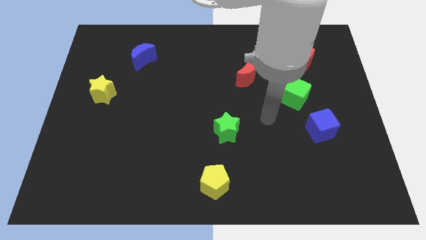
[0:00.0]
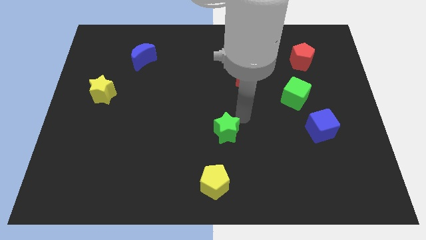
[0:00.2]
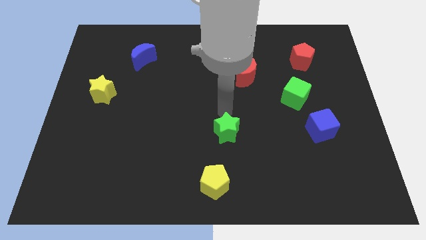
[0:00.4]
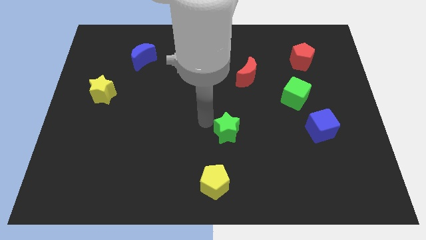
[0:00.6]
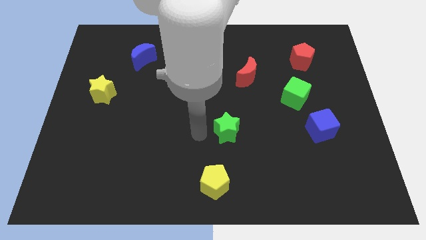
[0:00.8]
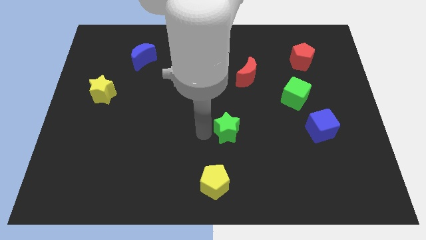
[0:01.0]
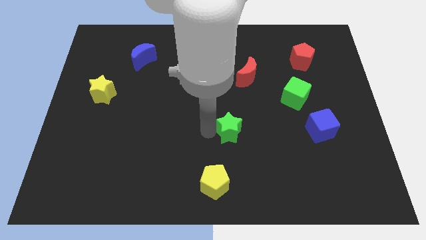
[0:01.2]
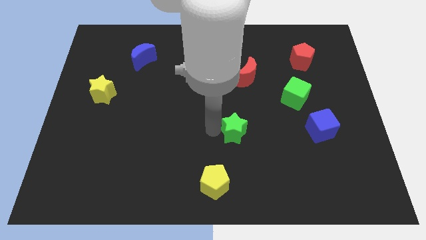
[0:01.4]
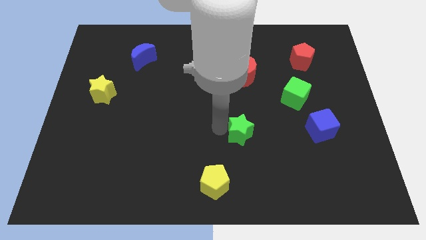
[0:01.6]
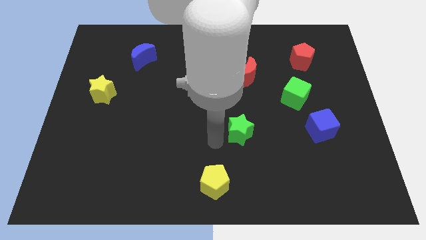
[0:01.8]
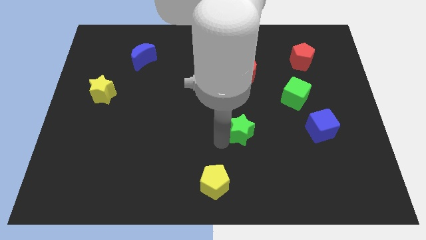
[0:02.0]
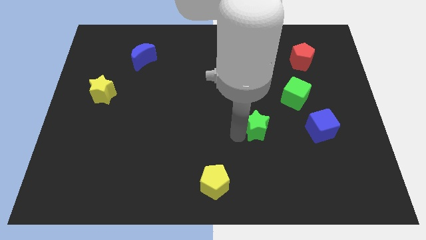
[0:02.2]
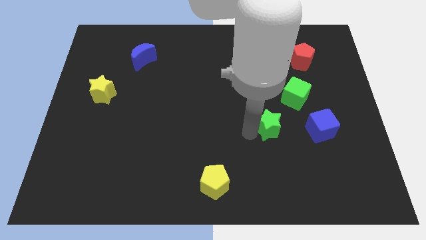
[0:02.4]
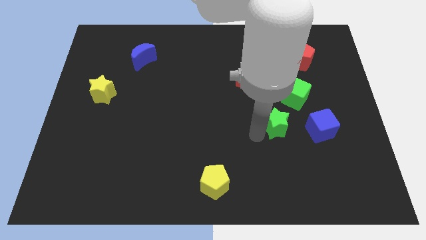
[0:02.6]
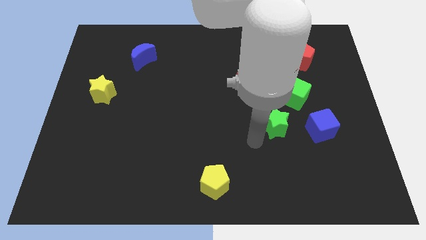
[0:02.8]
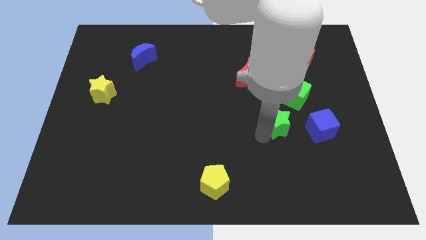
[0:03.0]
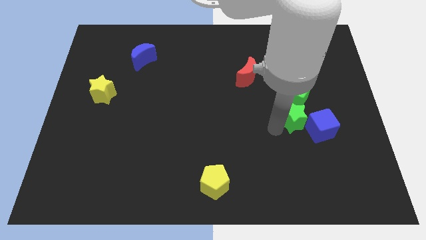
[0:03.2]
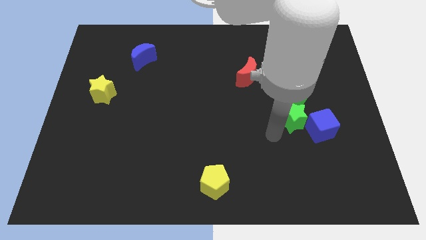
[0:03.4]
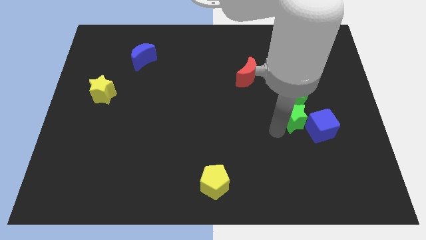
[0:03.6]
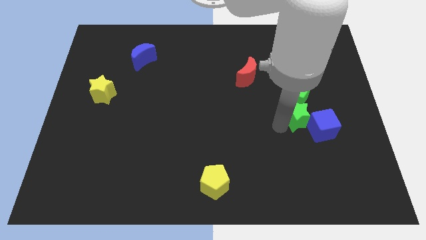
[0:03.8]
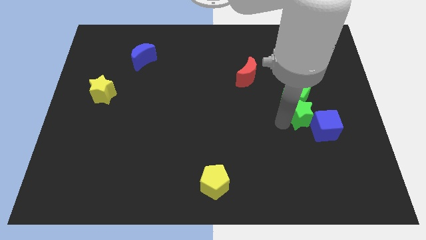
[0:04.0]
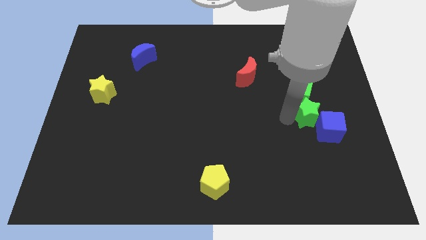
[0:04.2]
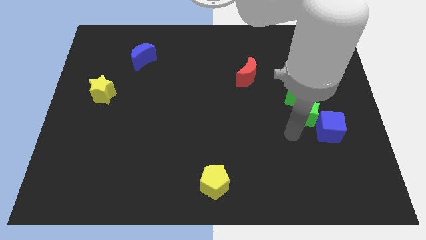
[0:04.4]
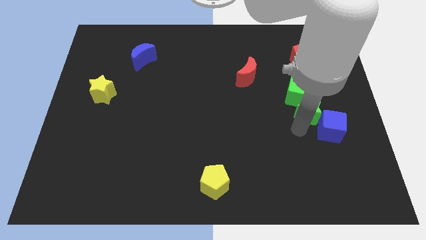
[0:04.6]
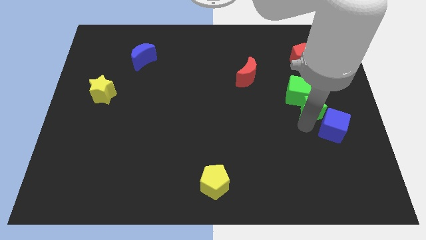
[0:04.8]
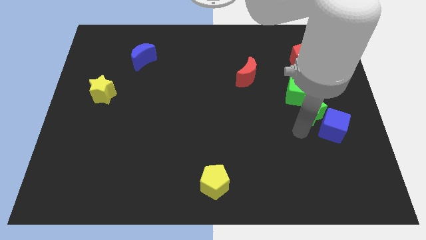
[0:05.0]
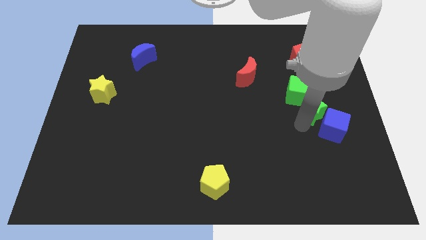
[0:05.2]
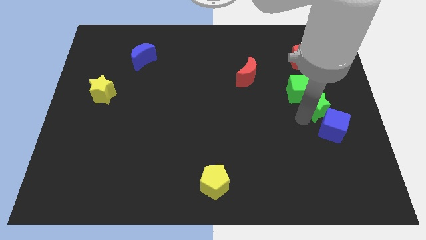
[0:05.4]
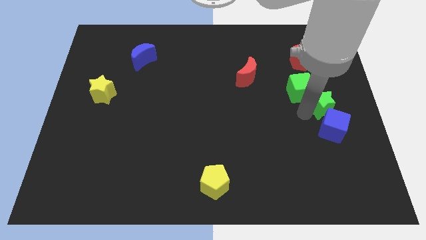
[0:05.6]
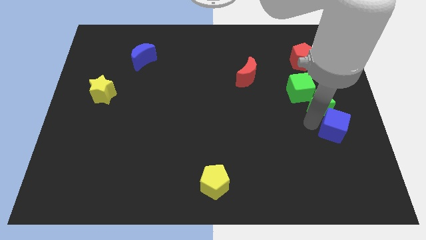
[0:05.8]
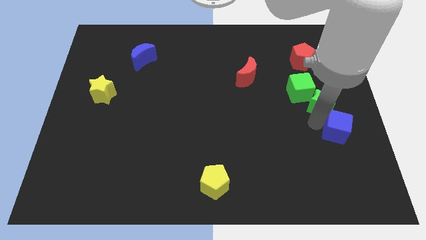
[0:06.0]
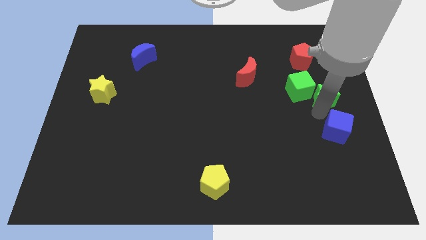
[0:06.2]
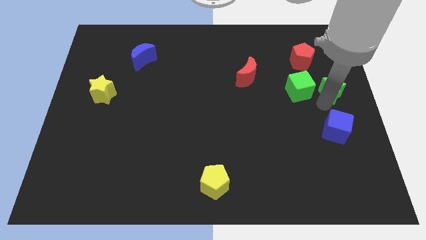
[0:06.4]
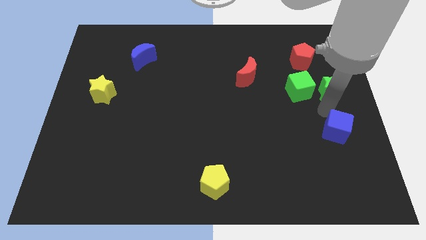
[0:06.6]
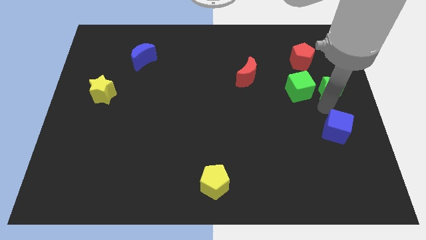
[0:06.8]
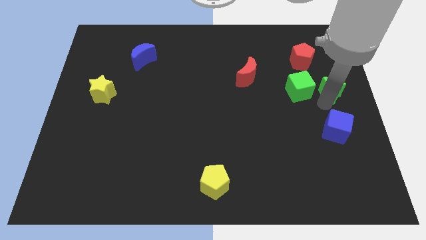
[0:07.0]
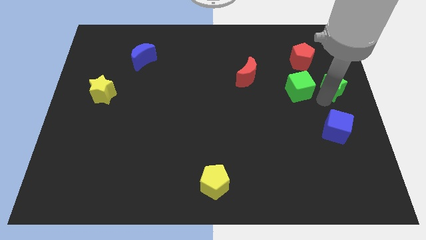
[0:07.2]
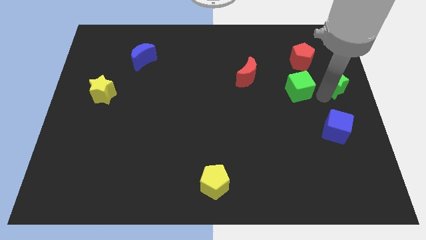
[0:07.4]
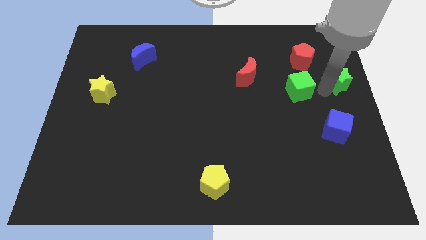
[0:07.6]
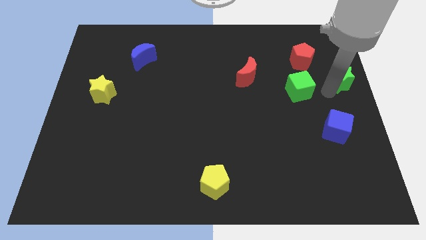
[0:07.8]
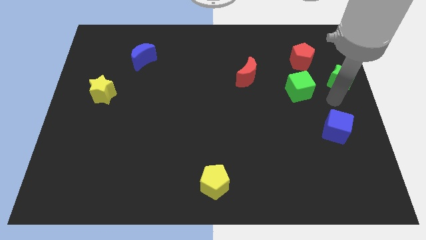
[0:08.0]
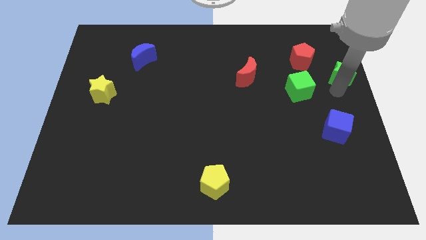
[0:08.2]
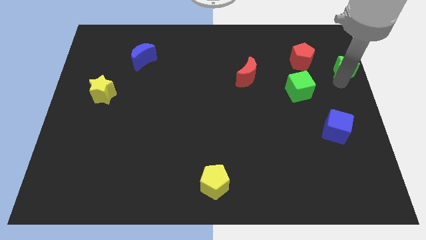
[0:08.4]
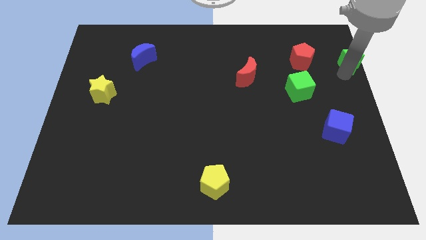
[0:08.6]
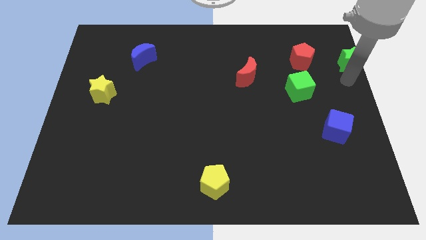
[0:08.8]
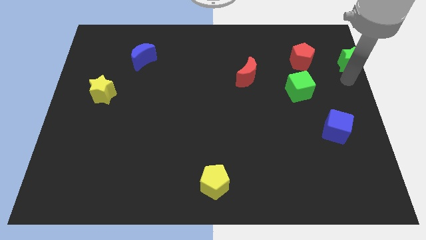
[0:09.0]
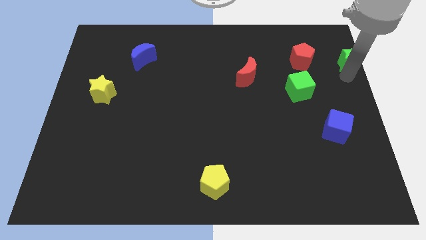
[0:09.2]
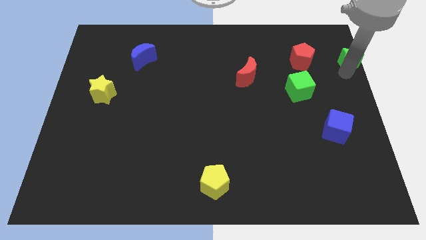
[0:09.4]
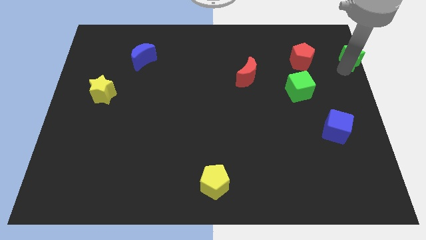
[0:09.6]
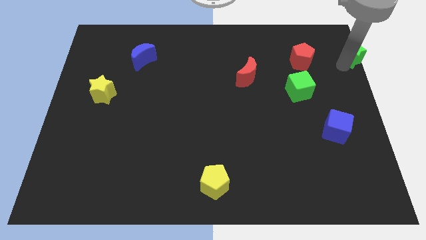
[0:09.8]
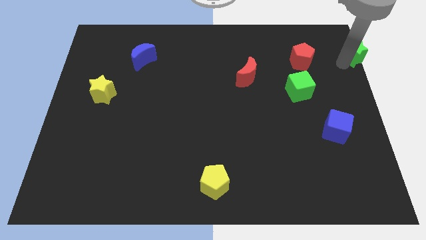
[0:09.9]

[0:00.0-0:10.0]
slide the green star to the top right of the board

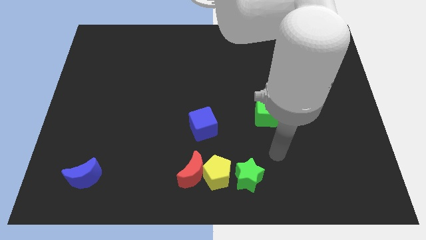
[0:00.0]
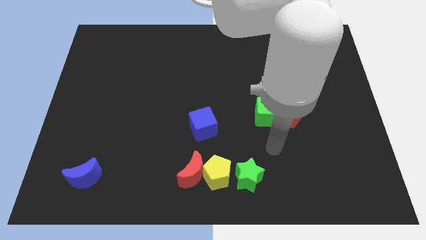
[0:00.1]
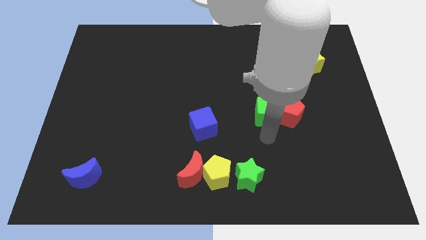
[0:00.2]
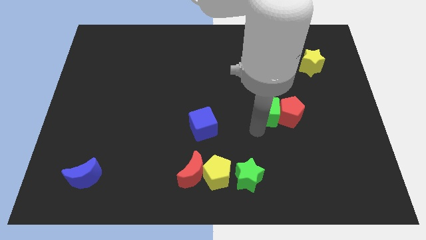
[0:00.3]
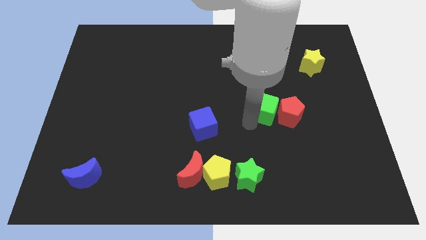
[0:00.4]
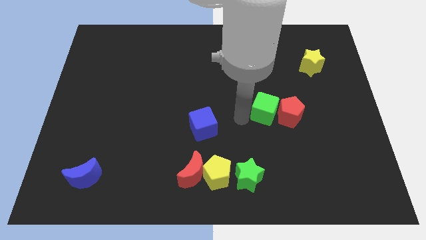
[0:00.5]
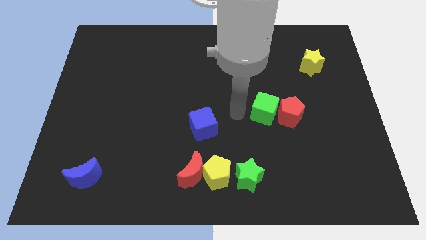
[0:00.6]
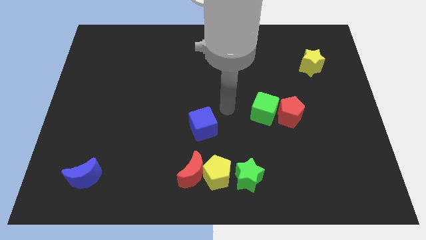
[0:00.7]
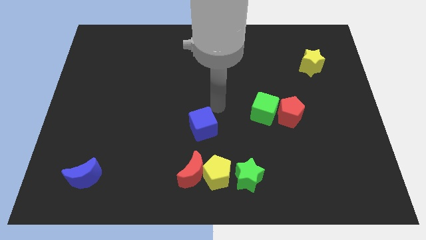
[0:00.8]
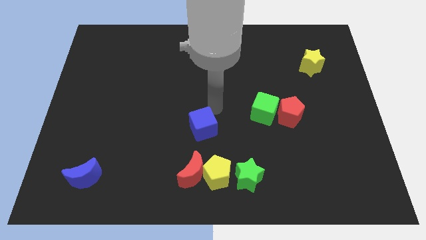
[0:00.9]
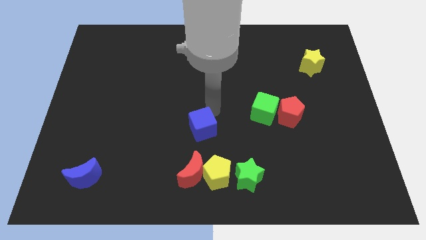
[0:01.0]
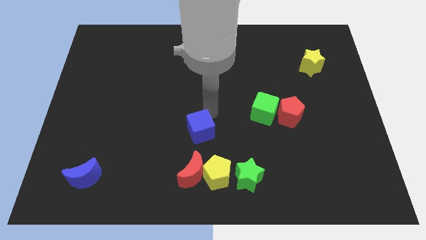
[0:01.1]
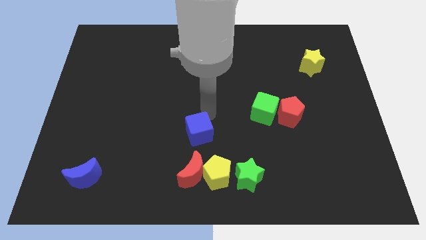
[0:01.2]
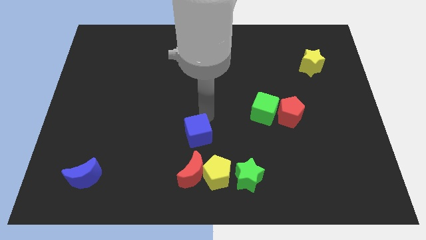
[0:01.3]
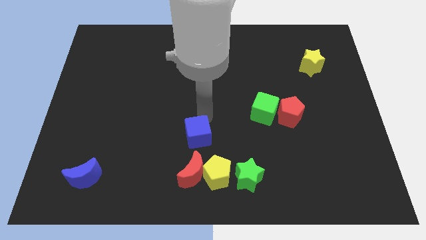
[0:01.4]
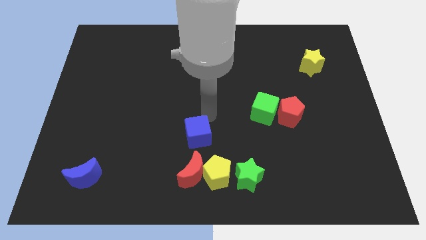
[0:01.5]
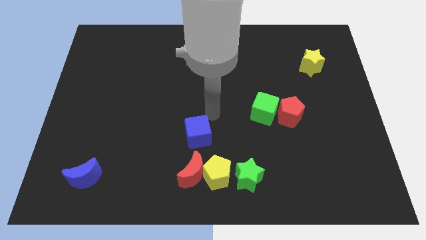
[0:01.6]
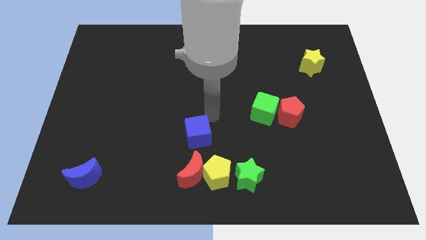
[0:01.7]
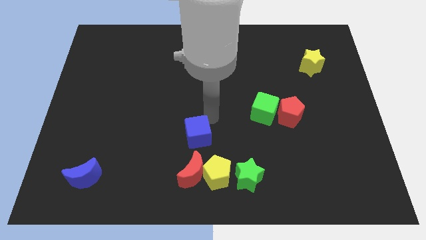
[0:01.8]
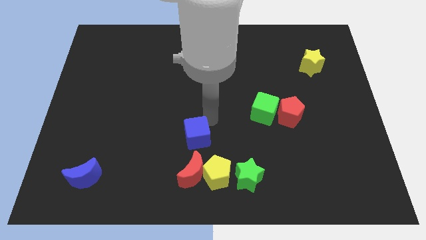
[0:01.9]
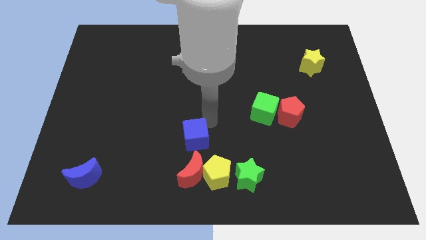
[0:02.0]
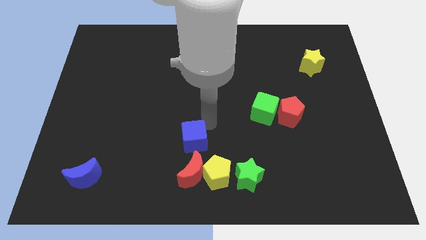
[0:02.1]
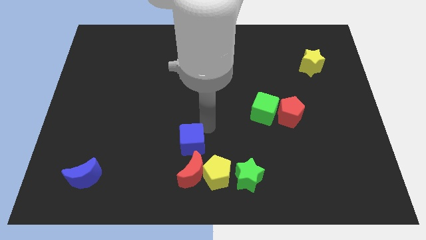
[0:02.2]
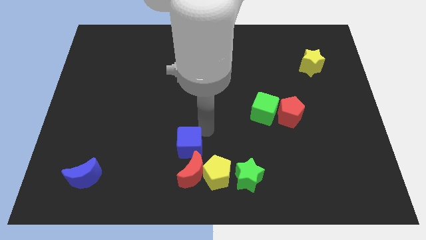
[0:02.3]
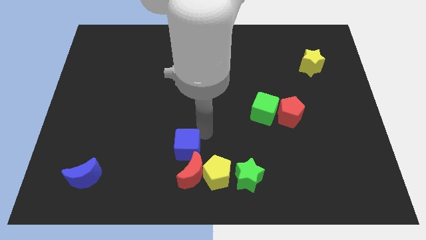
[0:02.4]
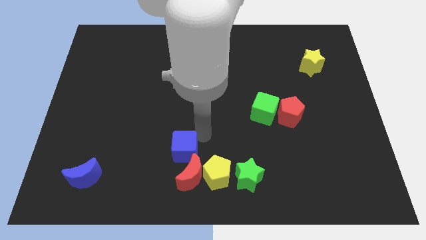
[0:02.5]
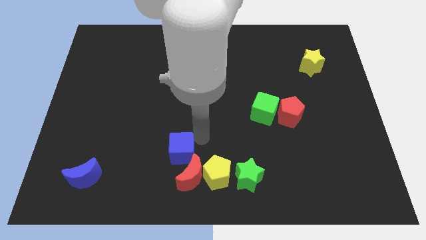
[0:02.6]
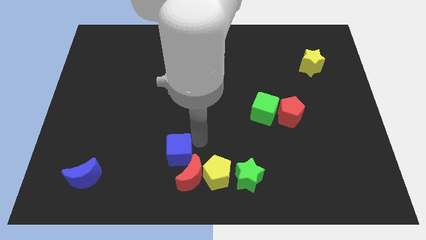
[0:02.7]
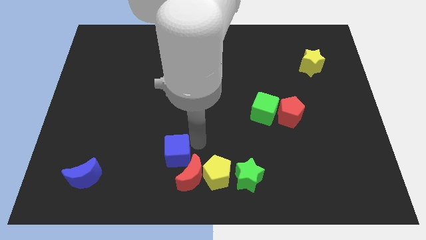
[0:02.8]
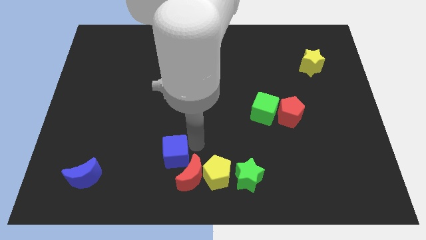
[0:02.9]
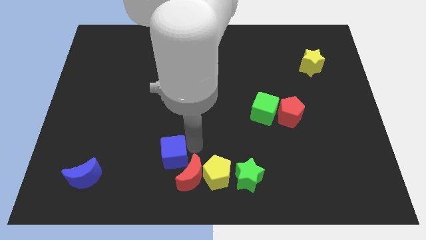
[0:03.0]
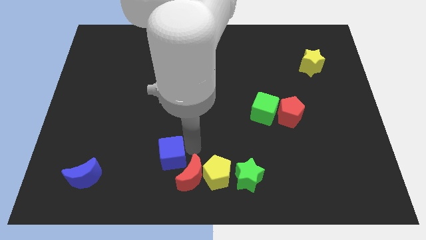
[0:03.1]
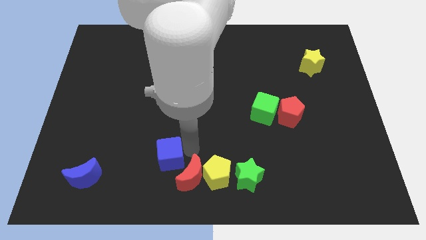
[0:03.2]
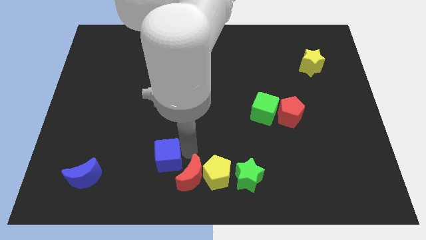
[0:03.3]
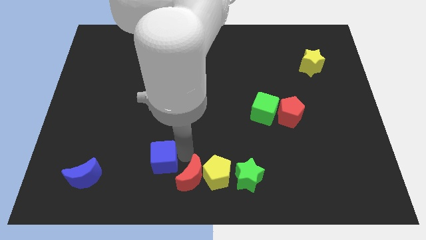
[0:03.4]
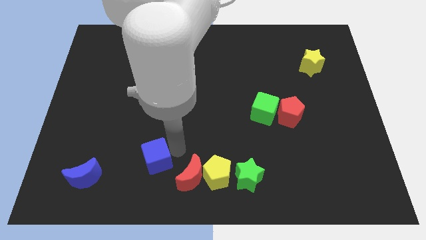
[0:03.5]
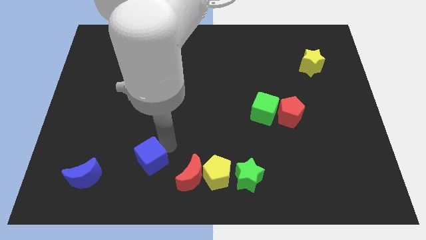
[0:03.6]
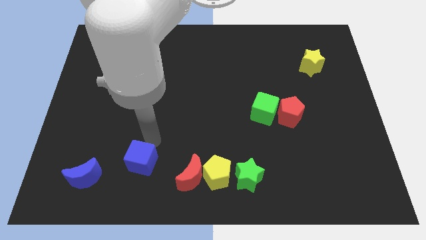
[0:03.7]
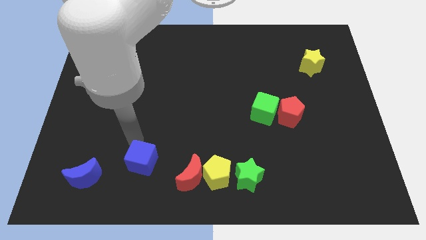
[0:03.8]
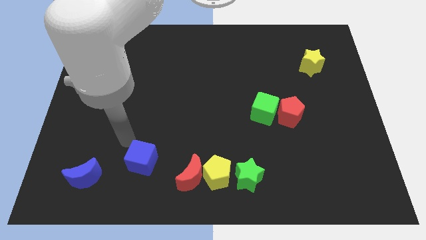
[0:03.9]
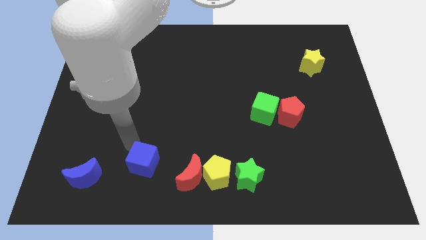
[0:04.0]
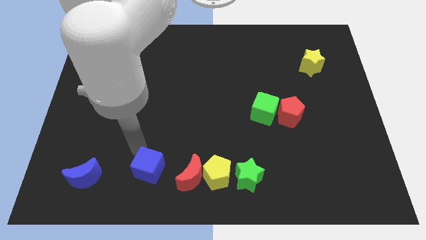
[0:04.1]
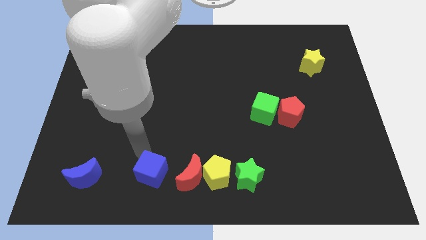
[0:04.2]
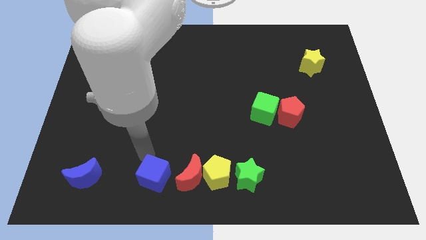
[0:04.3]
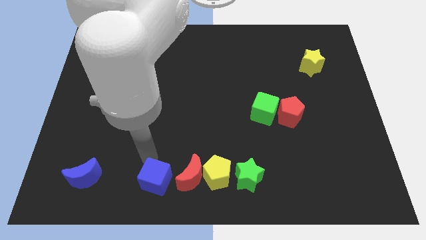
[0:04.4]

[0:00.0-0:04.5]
put the blue cube to the bottom side
